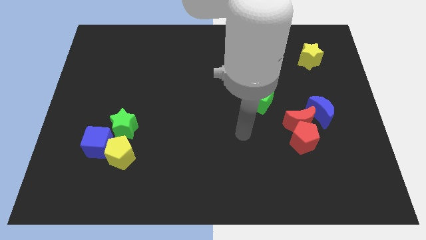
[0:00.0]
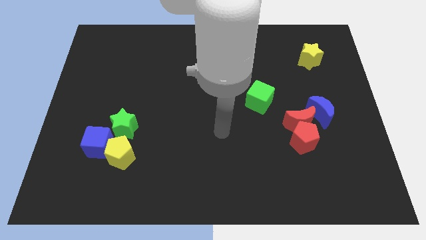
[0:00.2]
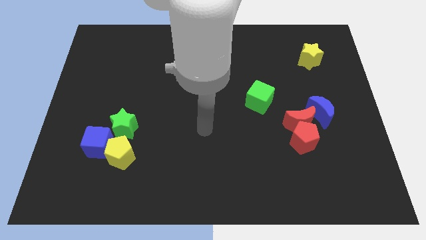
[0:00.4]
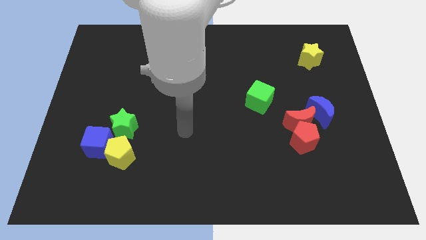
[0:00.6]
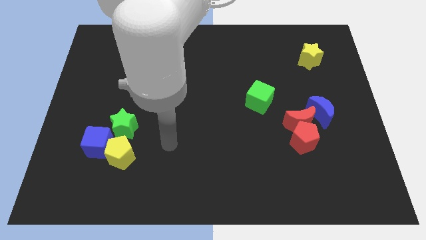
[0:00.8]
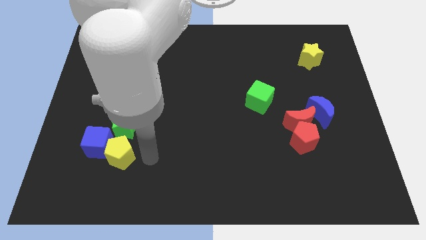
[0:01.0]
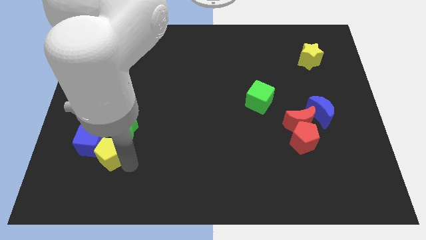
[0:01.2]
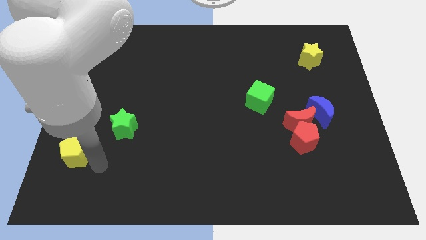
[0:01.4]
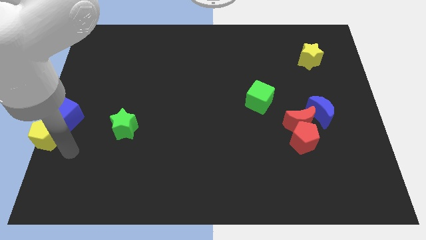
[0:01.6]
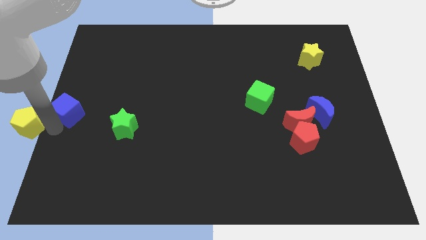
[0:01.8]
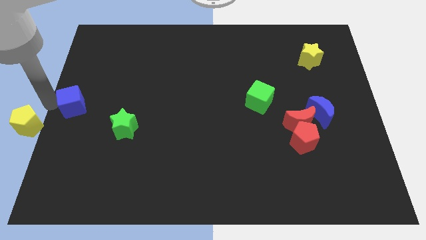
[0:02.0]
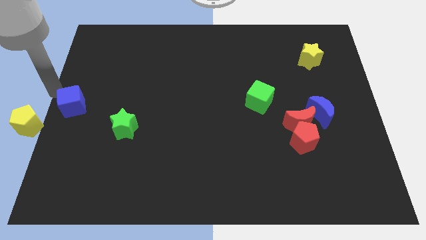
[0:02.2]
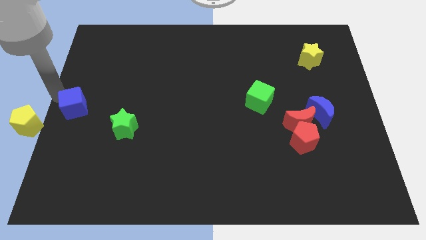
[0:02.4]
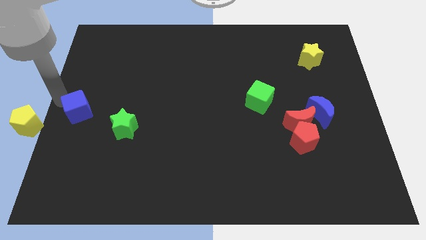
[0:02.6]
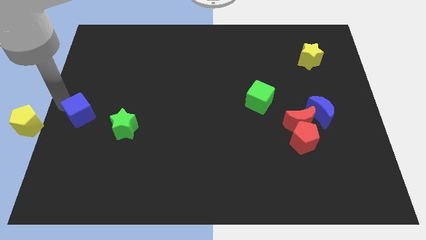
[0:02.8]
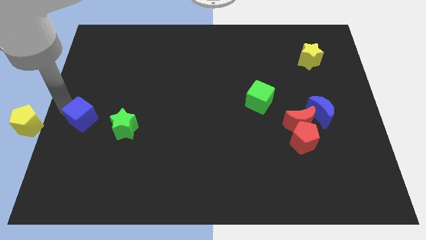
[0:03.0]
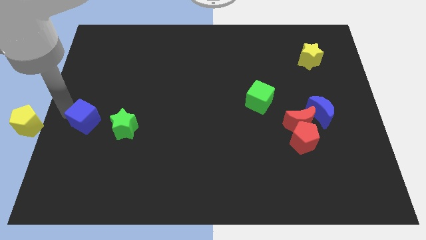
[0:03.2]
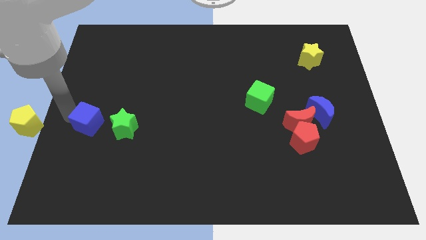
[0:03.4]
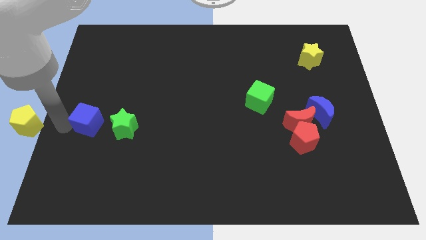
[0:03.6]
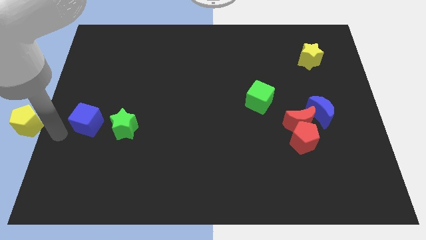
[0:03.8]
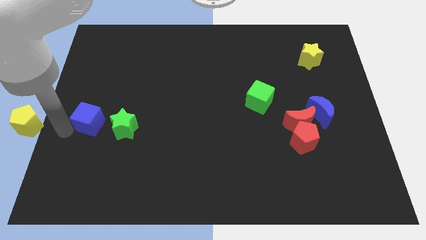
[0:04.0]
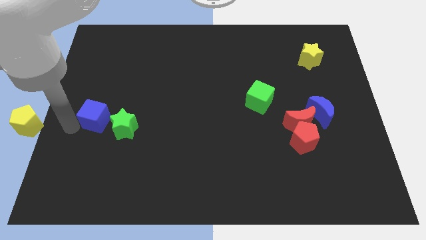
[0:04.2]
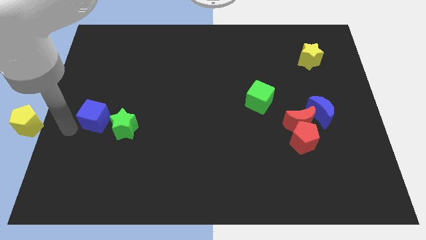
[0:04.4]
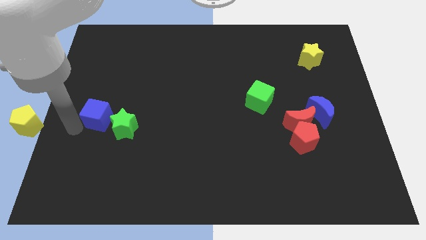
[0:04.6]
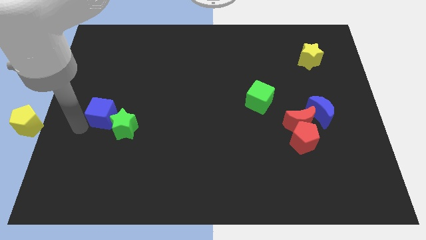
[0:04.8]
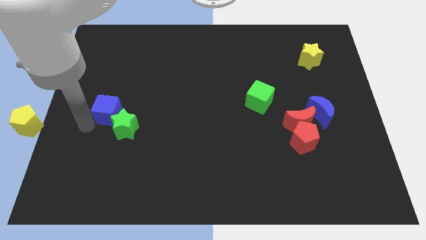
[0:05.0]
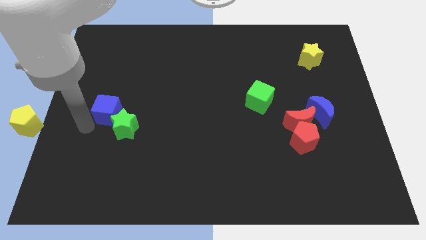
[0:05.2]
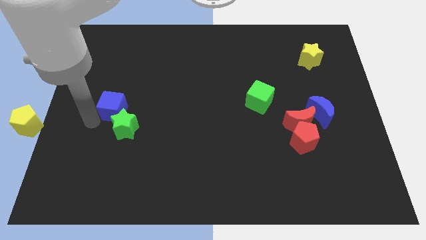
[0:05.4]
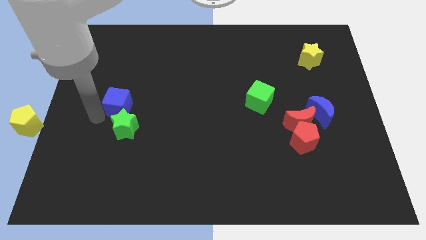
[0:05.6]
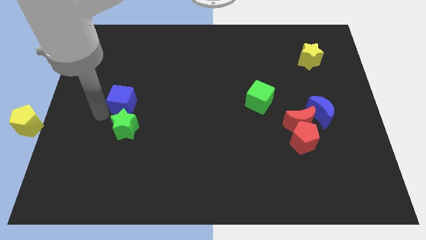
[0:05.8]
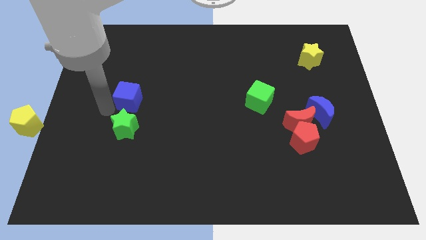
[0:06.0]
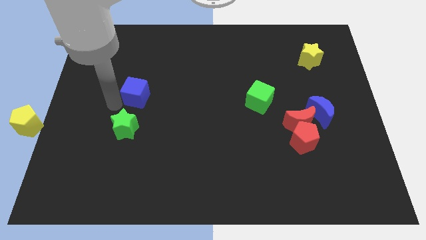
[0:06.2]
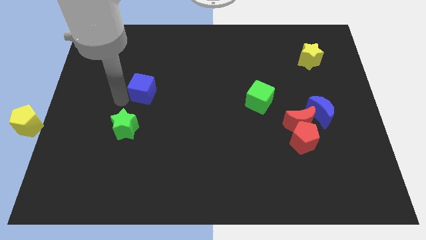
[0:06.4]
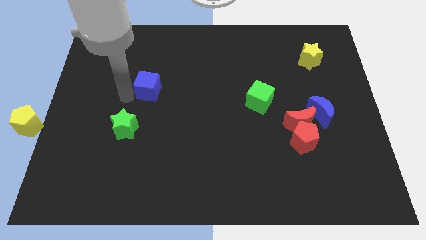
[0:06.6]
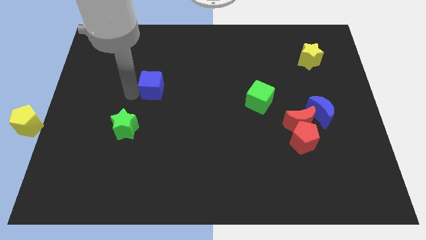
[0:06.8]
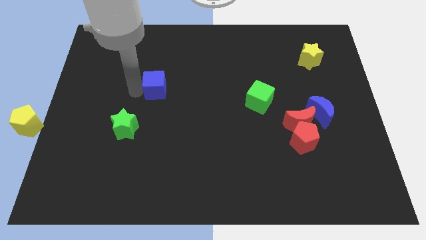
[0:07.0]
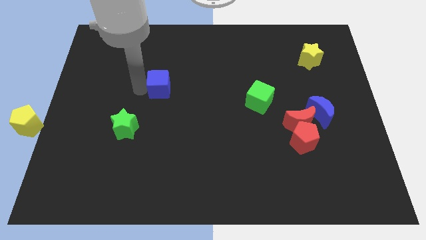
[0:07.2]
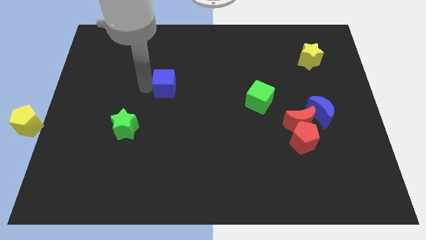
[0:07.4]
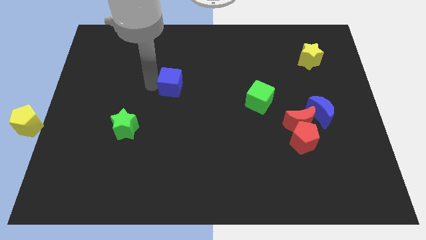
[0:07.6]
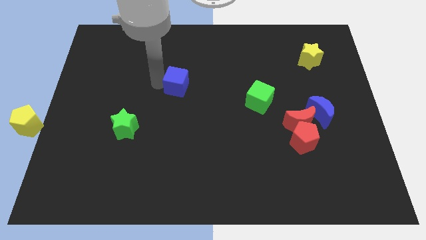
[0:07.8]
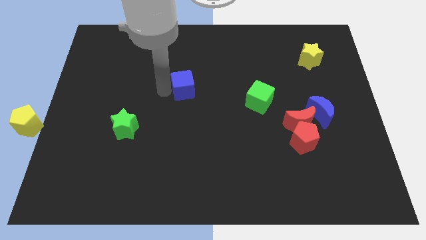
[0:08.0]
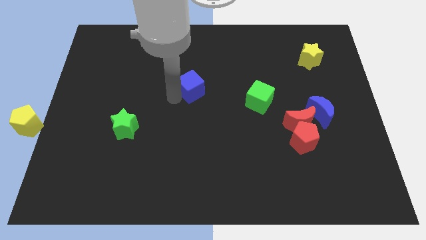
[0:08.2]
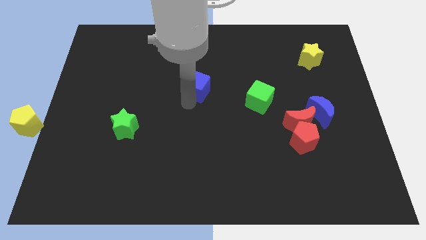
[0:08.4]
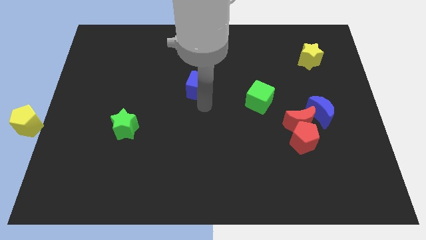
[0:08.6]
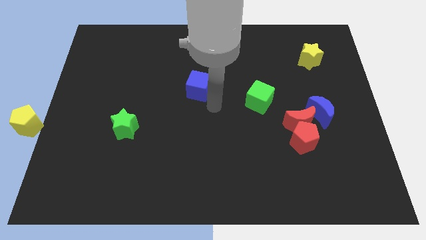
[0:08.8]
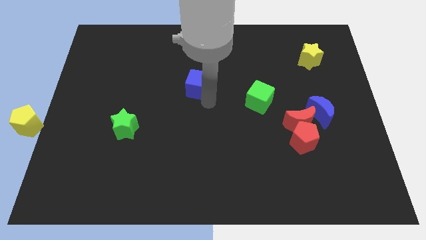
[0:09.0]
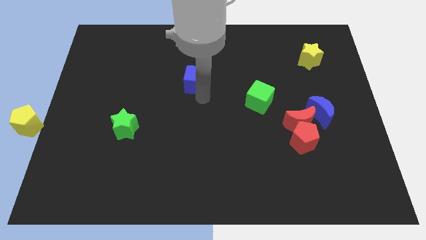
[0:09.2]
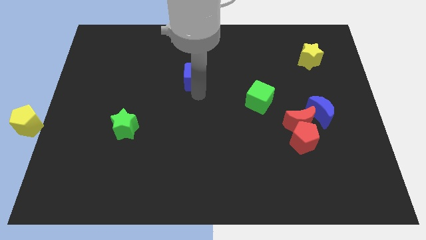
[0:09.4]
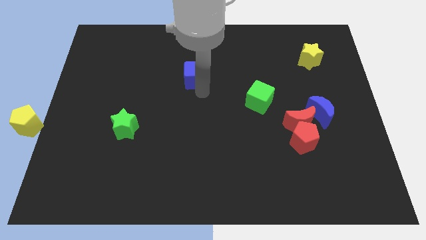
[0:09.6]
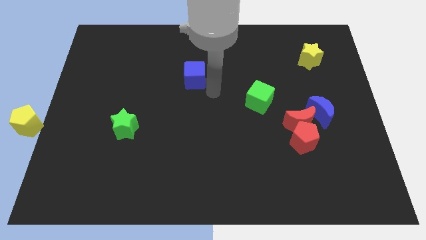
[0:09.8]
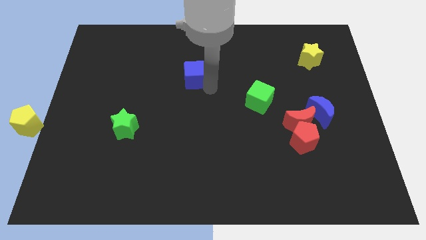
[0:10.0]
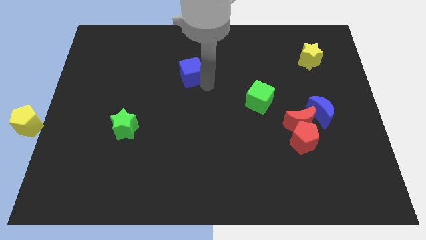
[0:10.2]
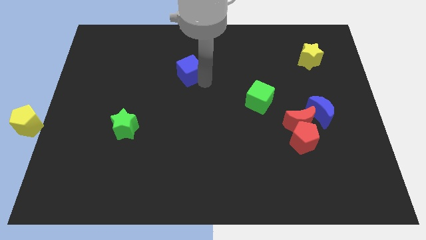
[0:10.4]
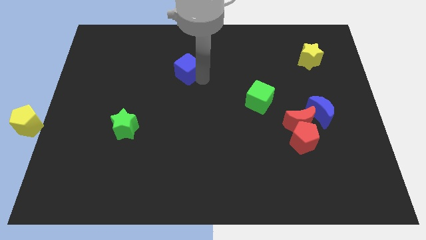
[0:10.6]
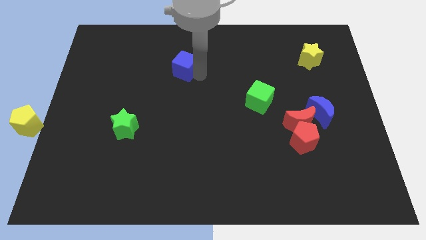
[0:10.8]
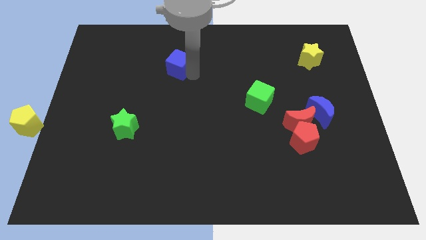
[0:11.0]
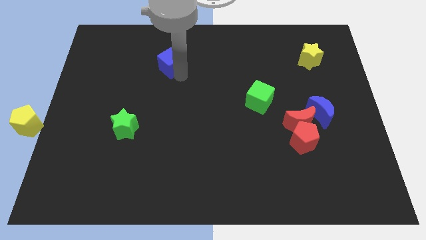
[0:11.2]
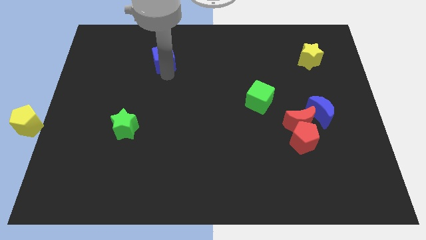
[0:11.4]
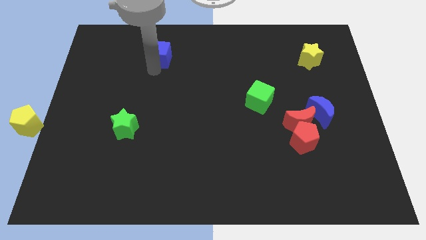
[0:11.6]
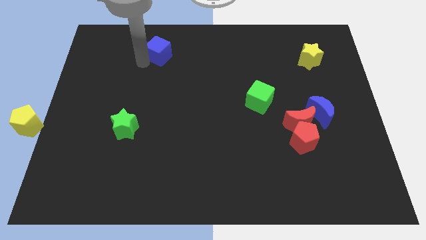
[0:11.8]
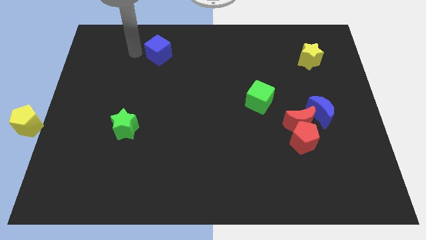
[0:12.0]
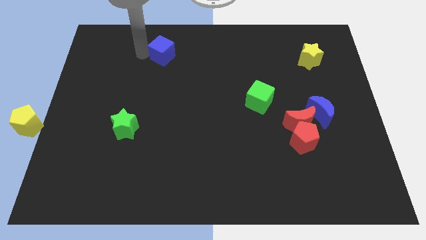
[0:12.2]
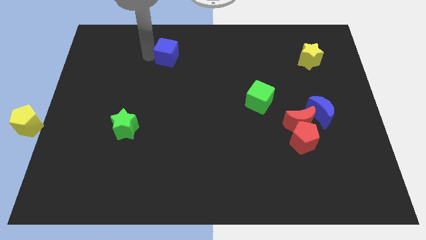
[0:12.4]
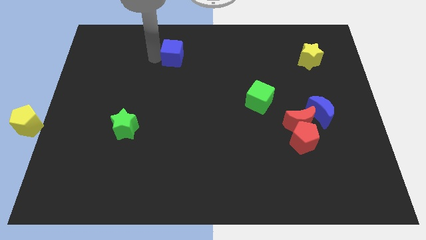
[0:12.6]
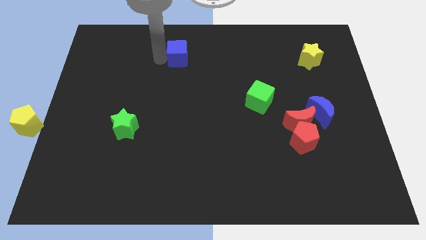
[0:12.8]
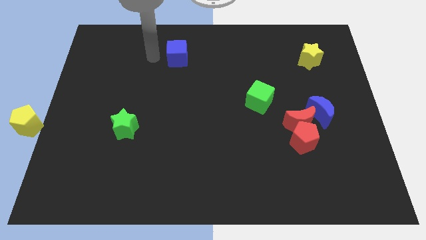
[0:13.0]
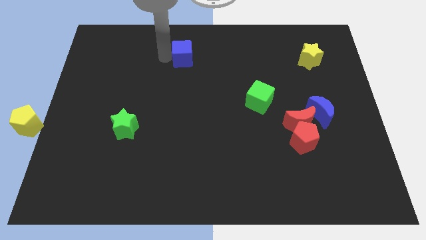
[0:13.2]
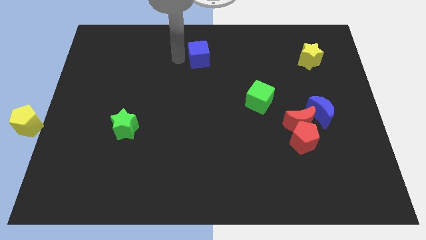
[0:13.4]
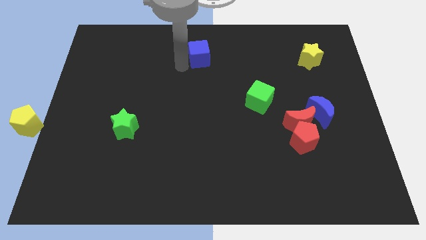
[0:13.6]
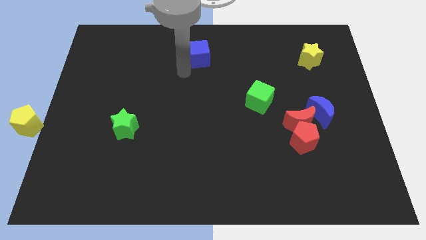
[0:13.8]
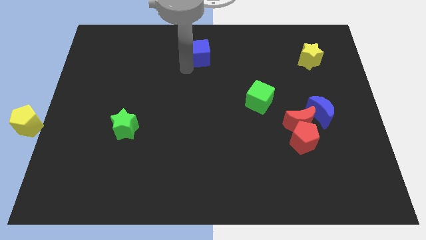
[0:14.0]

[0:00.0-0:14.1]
put the blue cube to the top side
